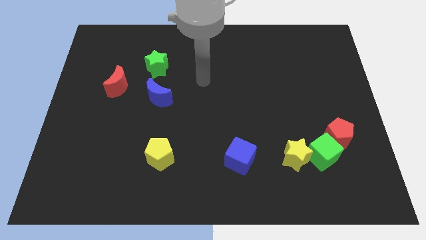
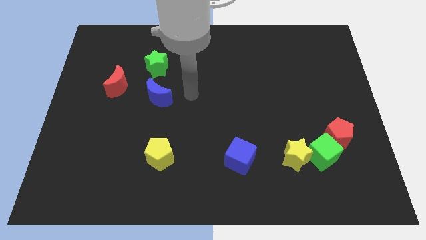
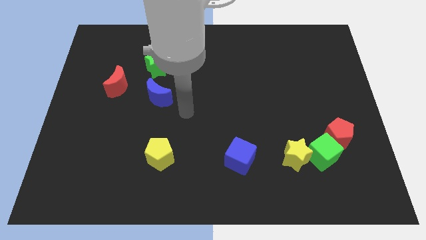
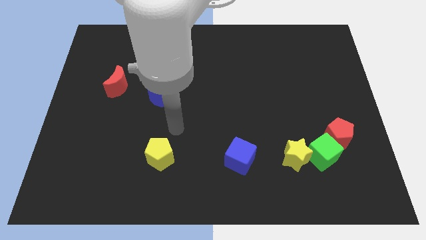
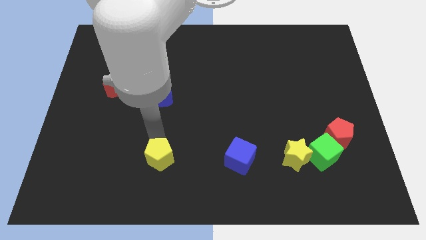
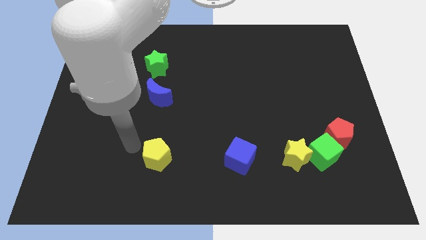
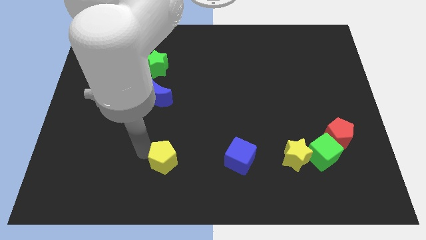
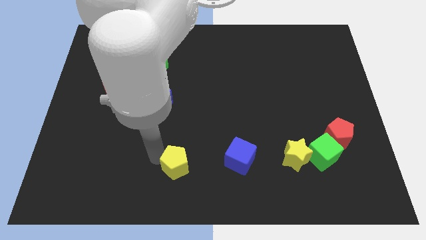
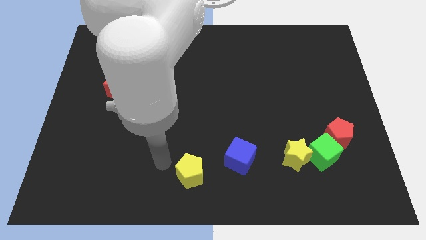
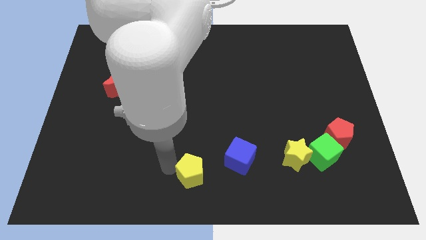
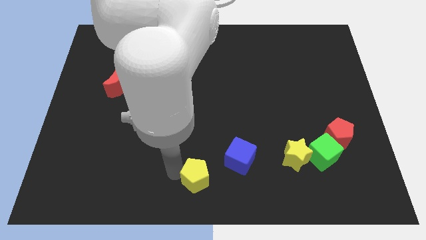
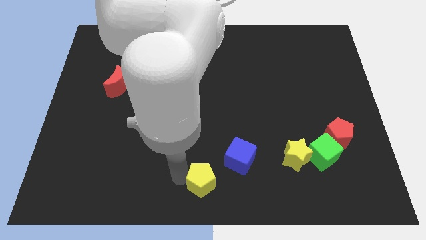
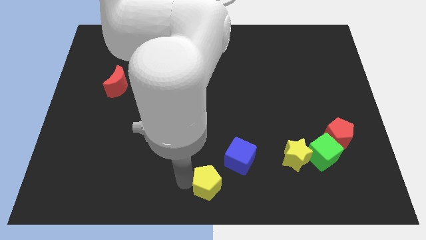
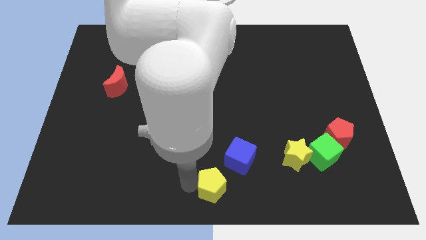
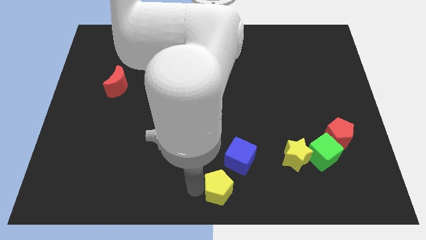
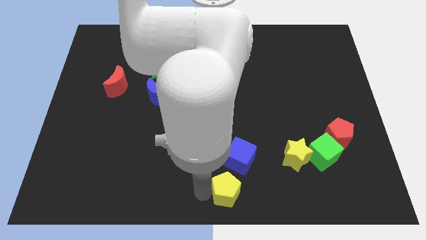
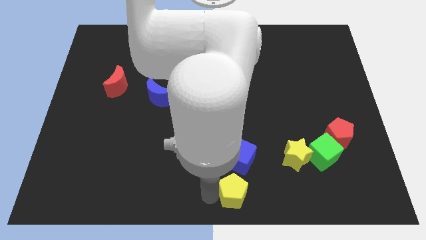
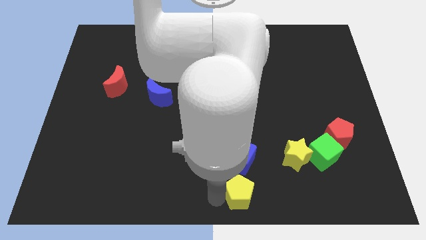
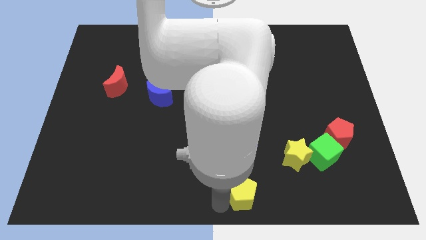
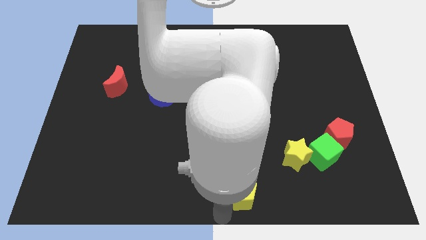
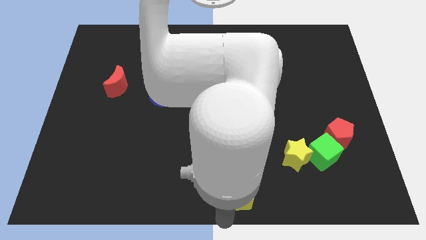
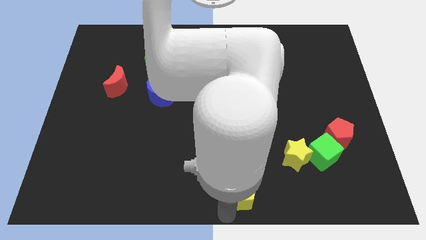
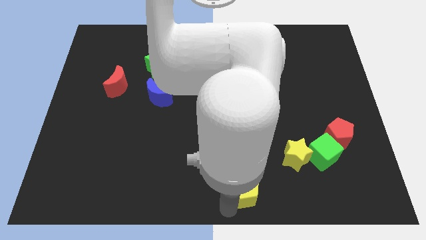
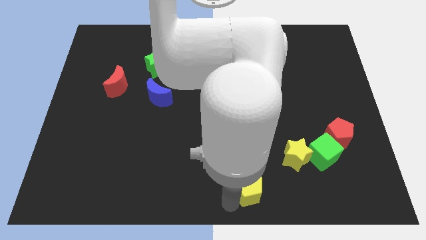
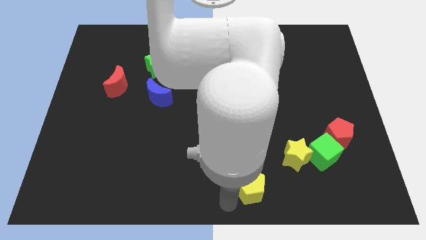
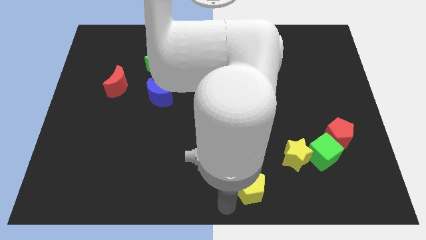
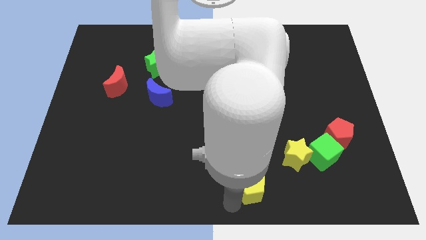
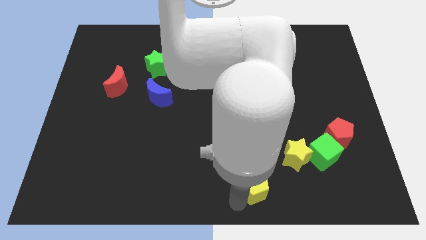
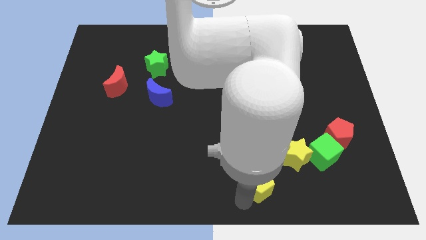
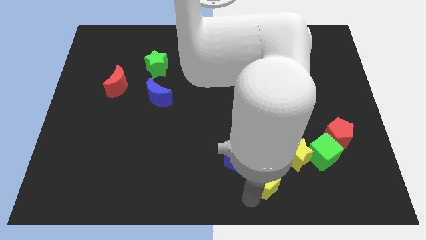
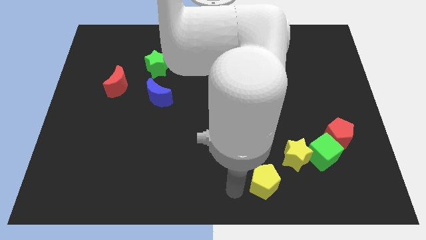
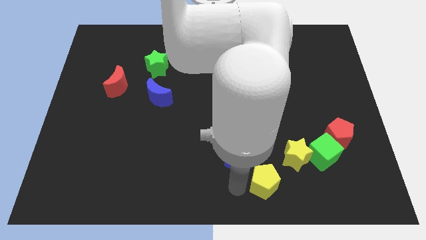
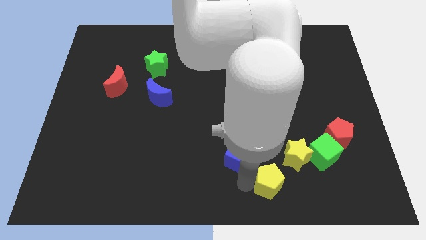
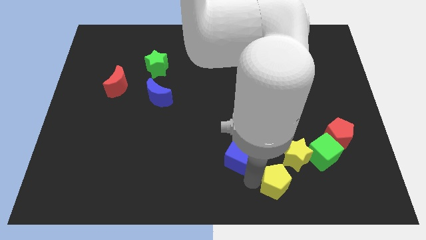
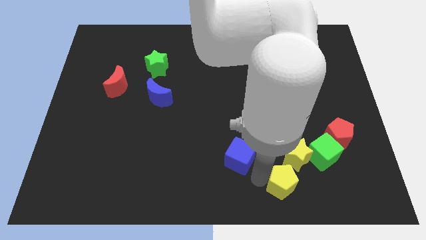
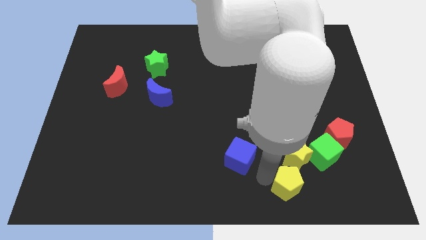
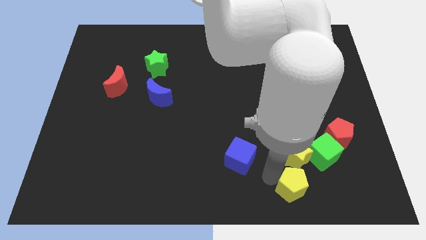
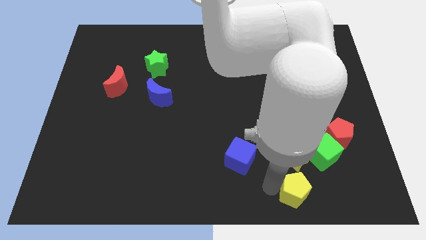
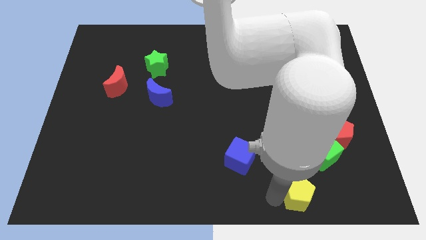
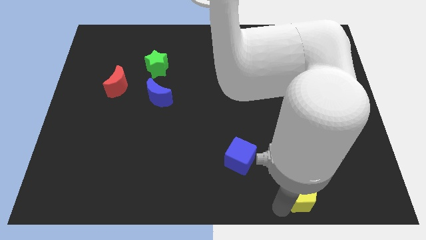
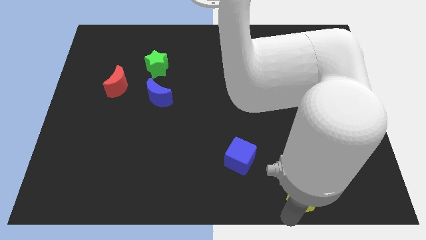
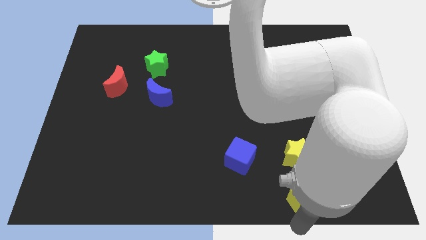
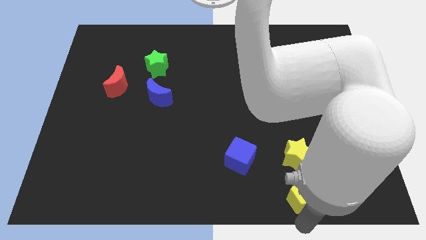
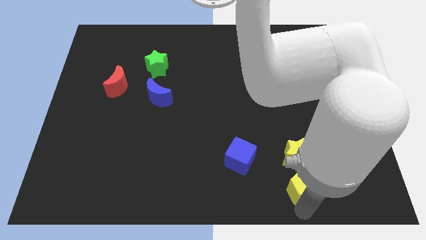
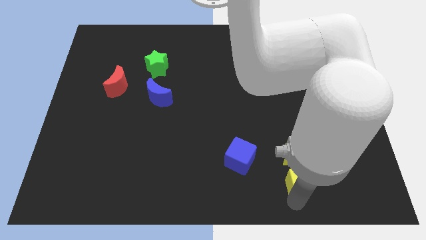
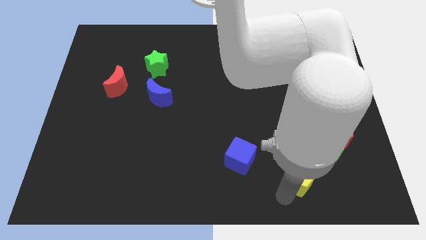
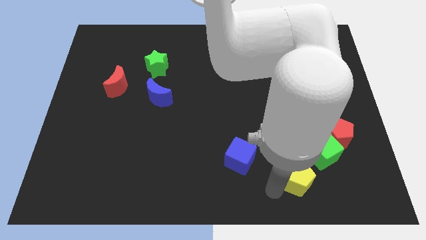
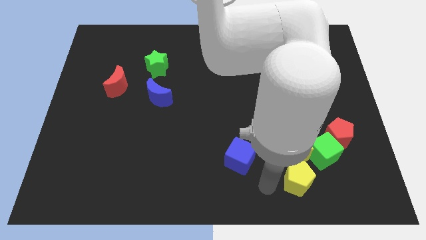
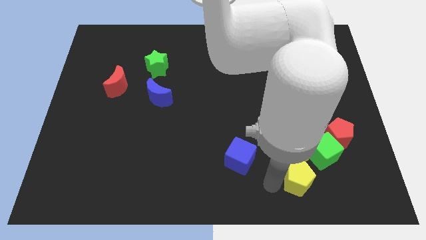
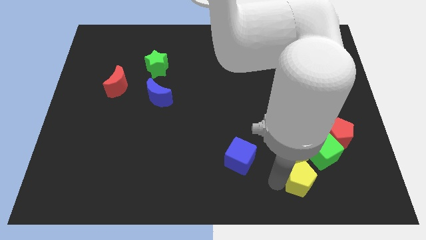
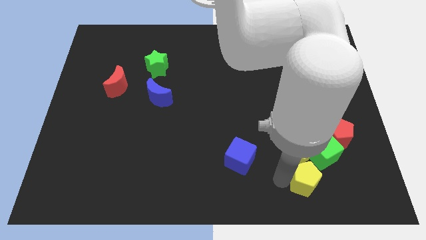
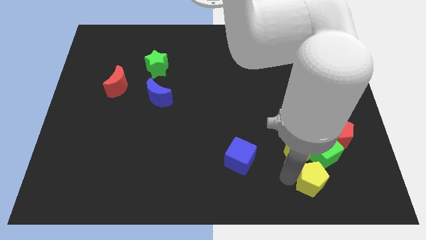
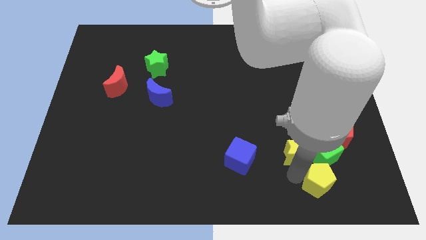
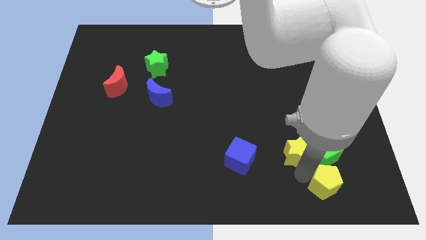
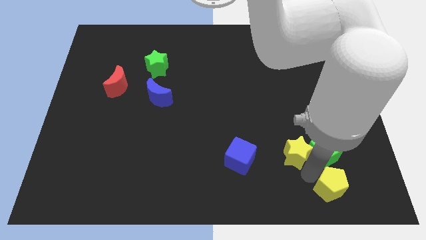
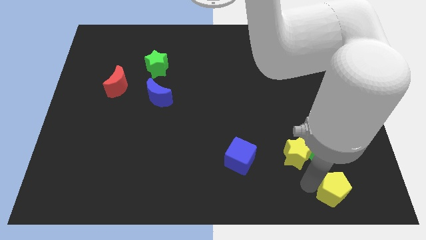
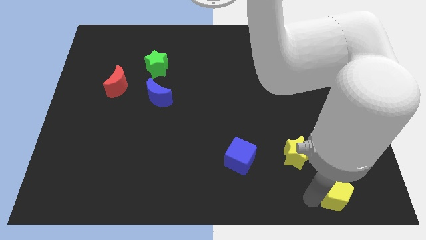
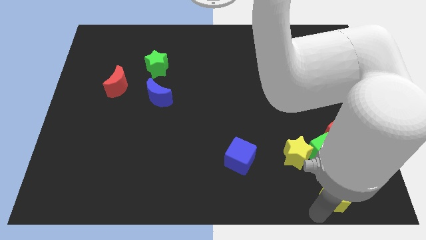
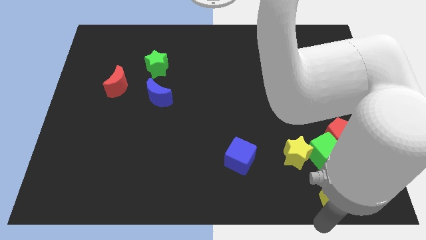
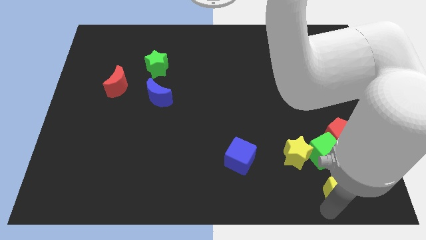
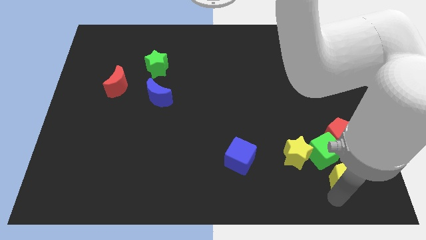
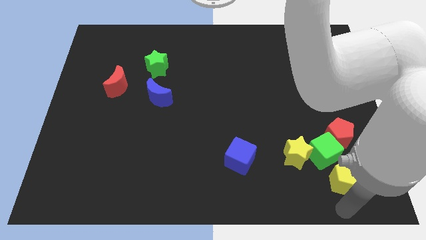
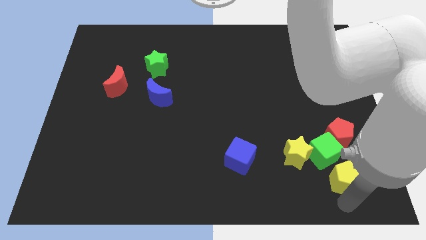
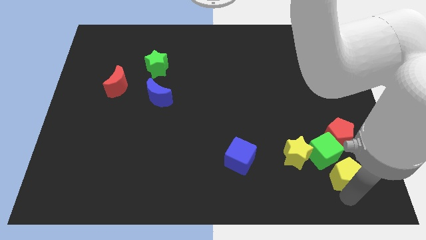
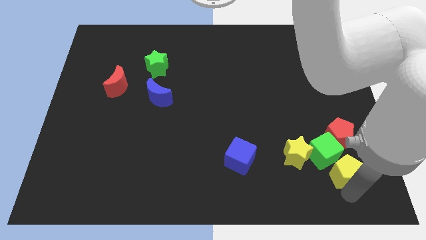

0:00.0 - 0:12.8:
move the yellow pentagon right of the yellow star

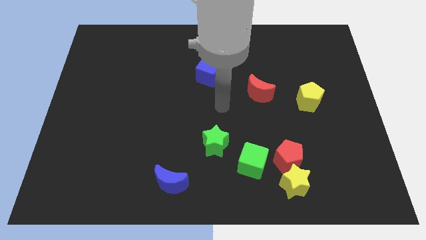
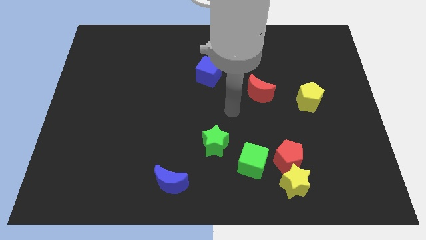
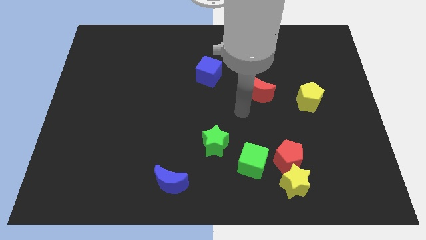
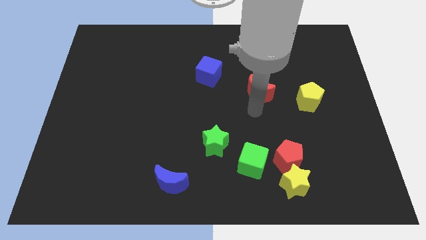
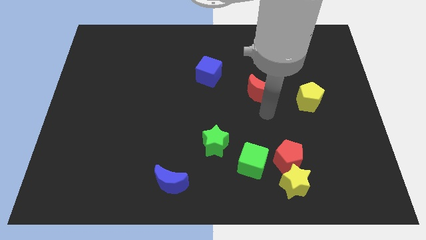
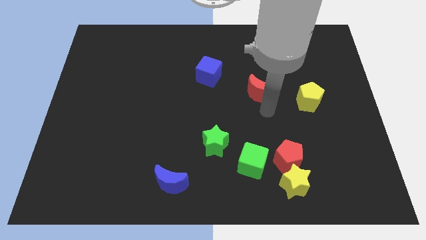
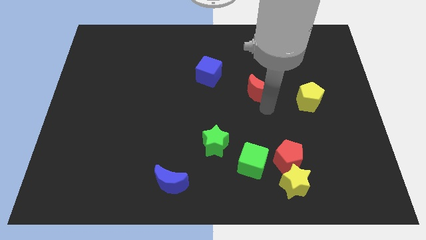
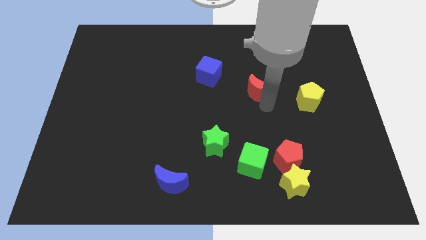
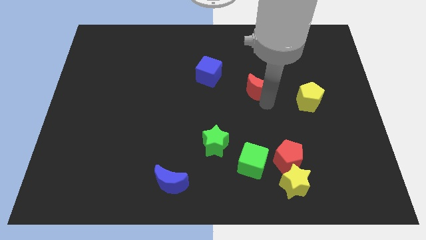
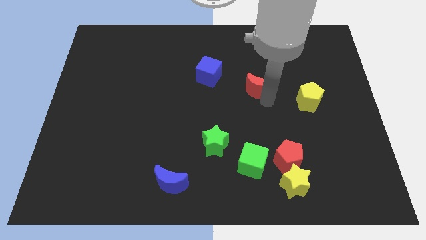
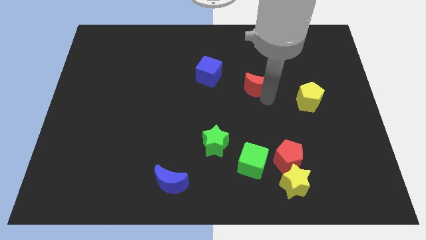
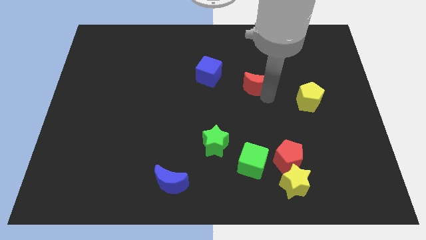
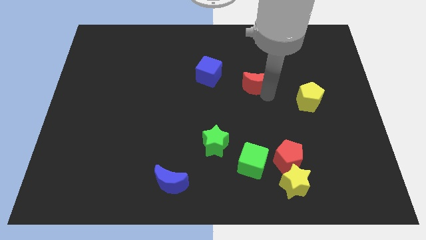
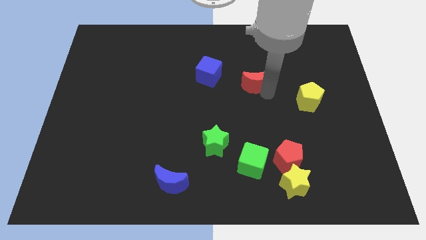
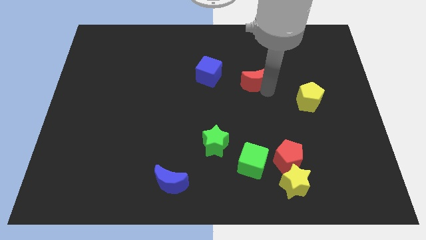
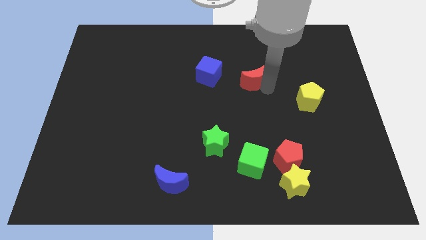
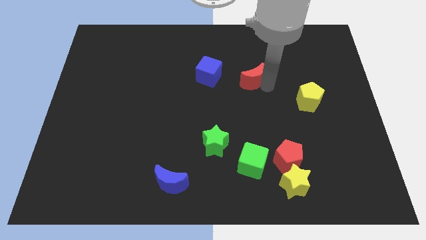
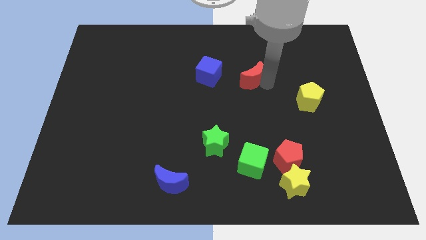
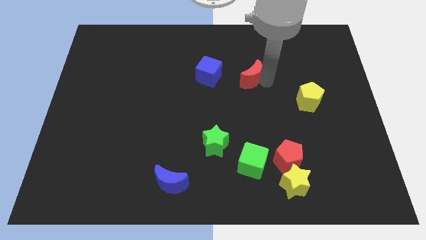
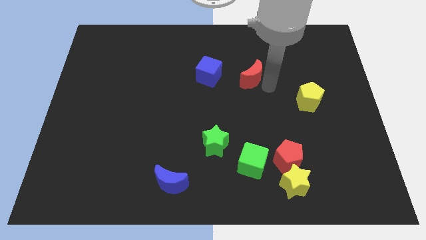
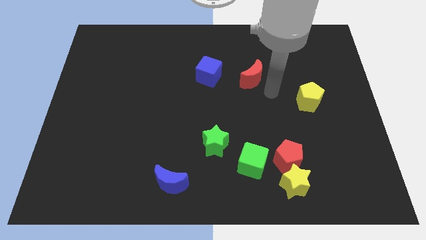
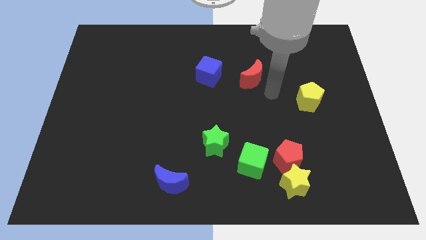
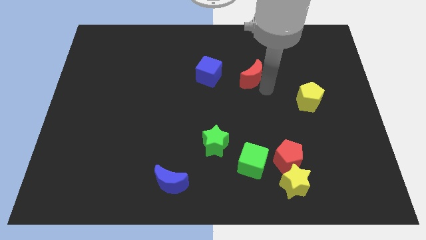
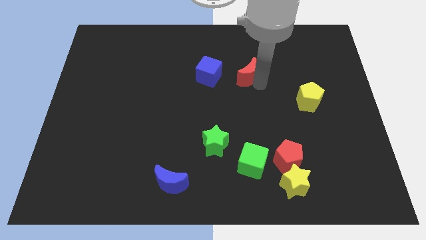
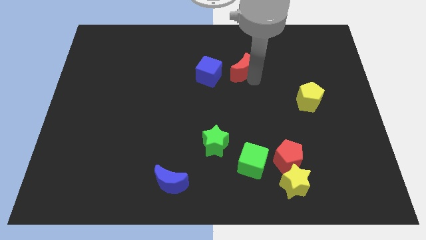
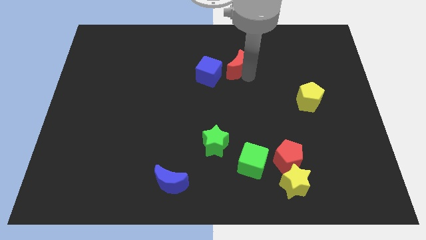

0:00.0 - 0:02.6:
push the red moon to the top right side of the blue cube
